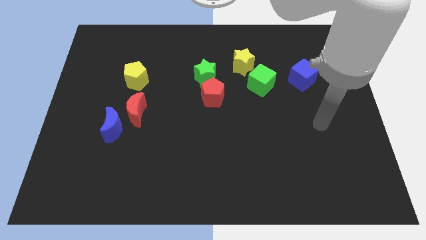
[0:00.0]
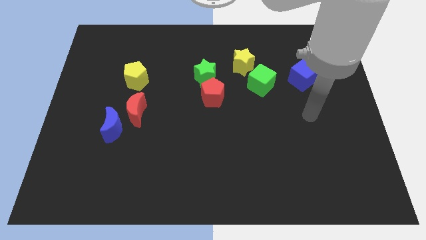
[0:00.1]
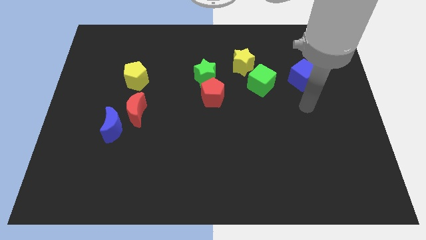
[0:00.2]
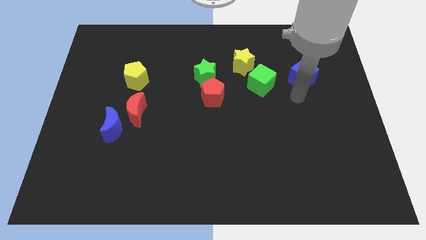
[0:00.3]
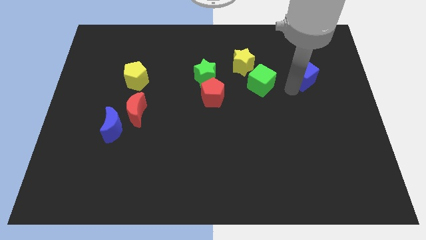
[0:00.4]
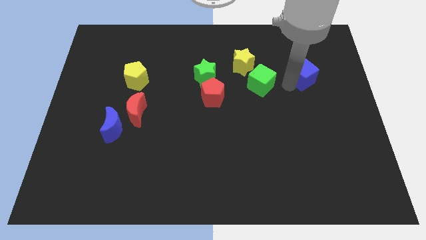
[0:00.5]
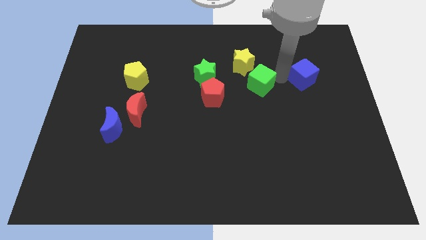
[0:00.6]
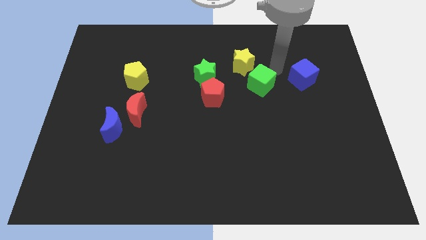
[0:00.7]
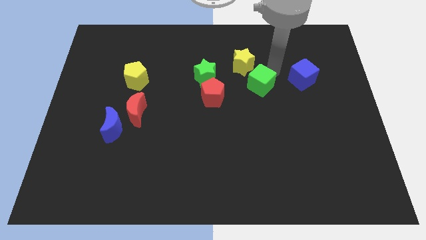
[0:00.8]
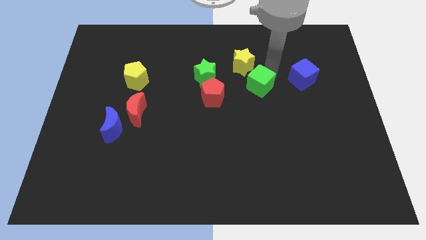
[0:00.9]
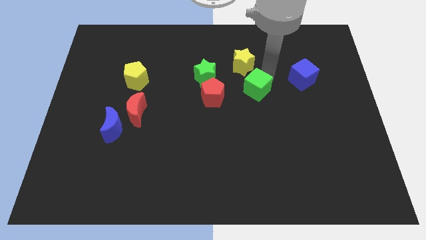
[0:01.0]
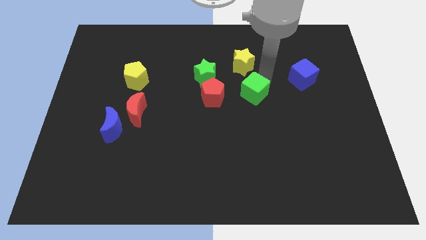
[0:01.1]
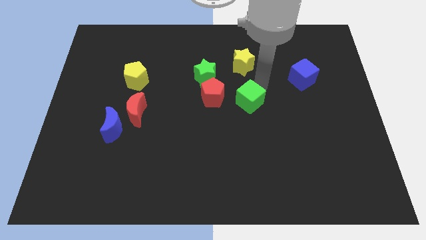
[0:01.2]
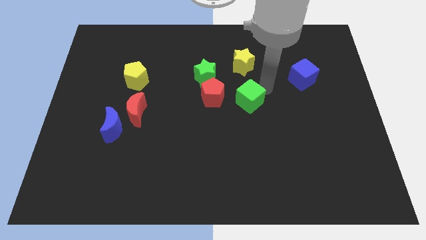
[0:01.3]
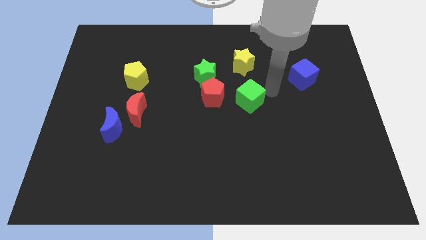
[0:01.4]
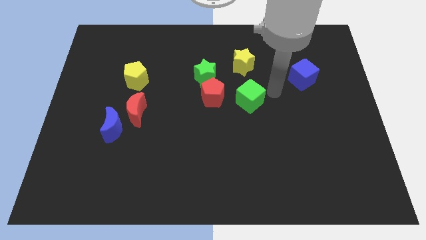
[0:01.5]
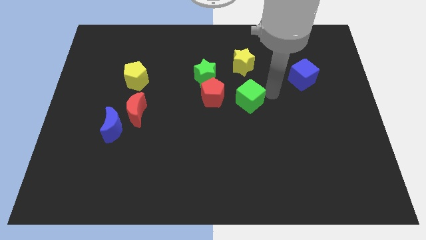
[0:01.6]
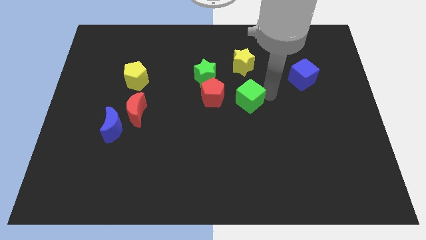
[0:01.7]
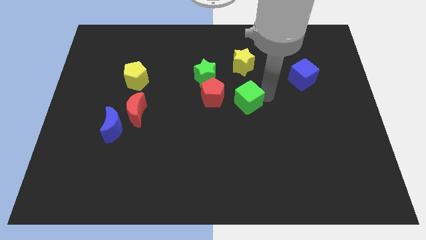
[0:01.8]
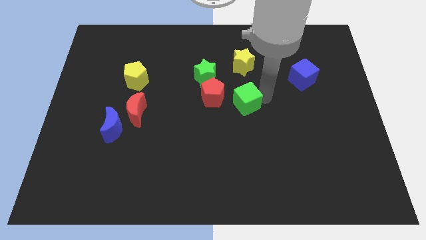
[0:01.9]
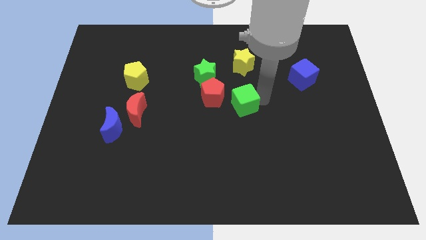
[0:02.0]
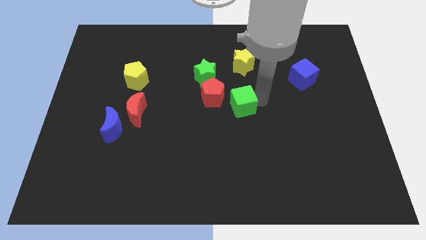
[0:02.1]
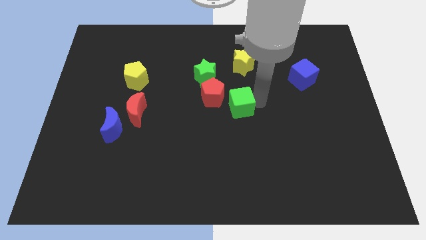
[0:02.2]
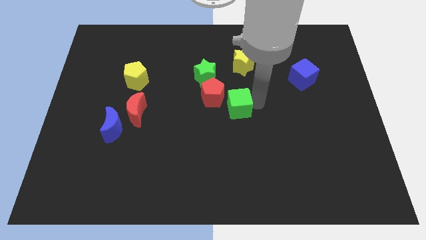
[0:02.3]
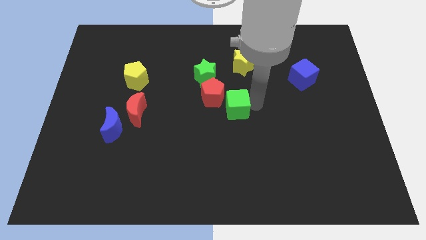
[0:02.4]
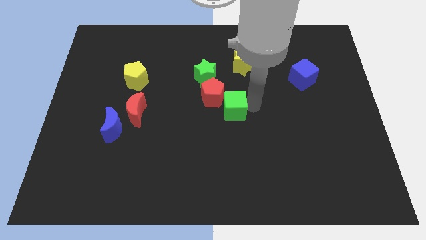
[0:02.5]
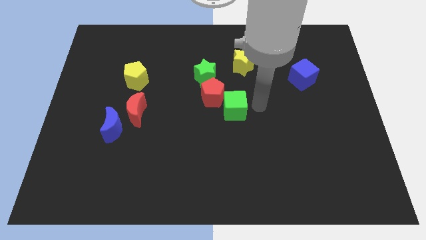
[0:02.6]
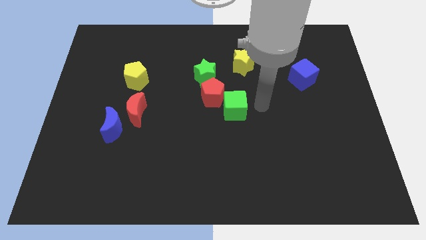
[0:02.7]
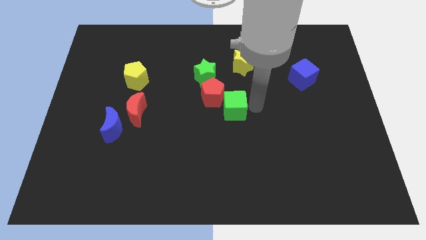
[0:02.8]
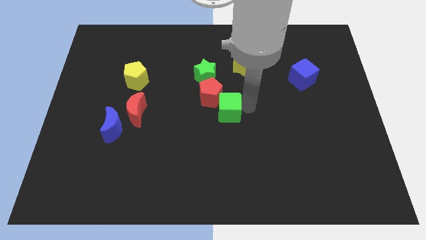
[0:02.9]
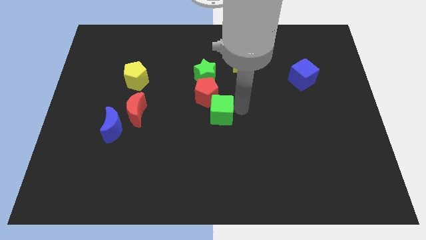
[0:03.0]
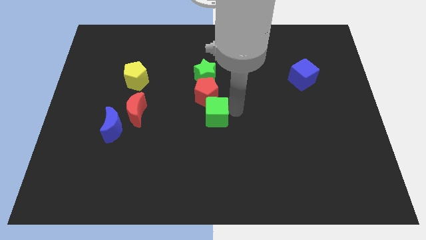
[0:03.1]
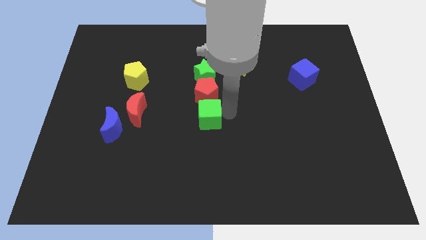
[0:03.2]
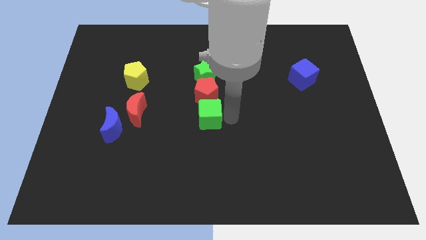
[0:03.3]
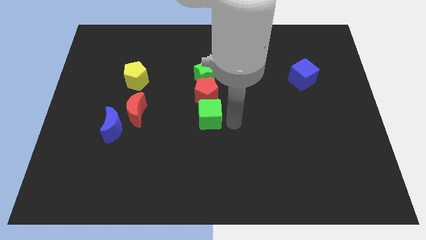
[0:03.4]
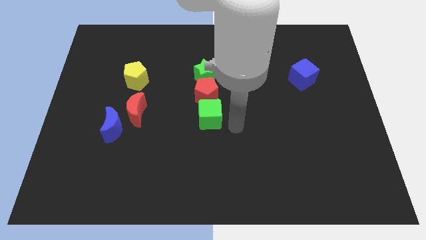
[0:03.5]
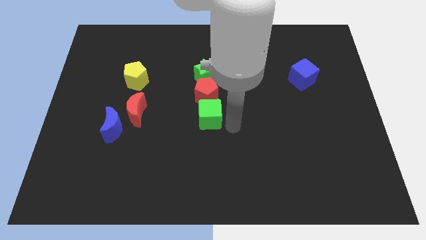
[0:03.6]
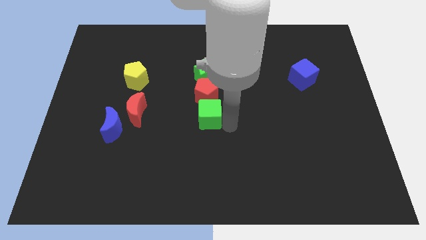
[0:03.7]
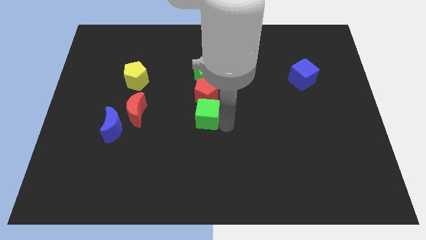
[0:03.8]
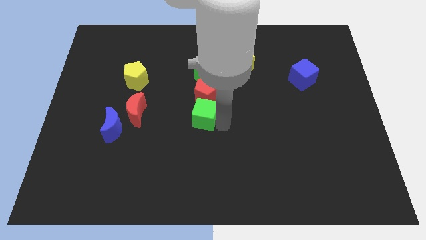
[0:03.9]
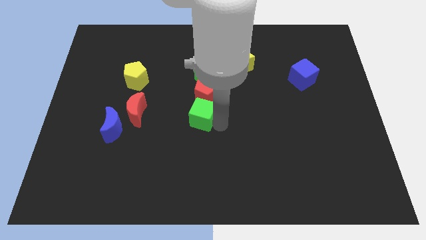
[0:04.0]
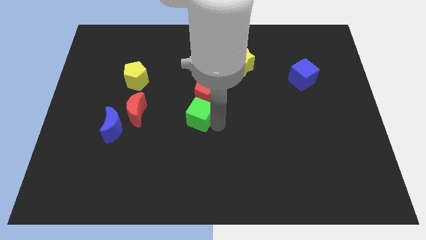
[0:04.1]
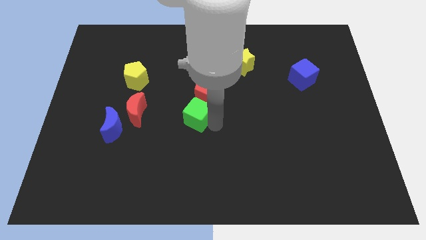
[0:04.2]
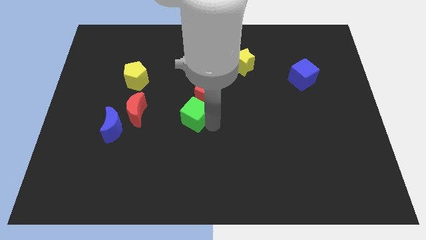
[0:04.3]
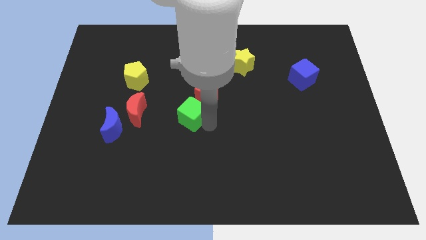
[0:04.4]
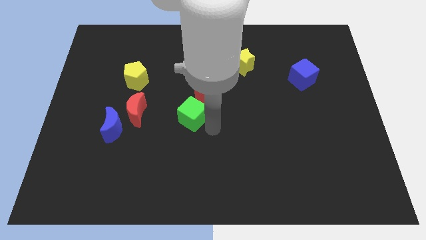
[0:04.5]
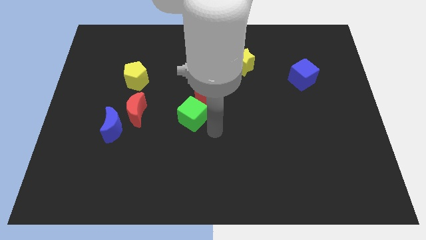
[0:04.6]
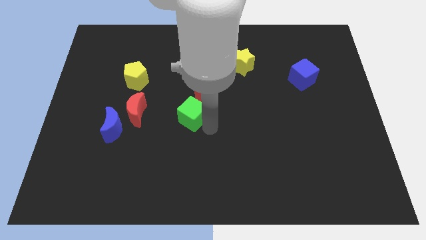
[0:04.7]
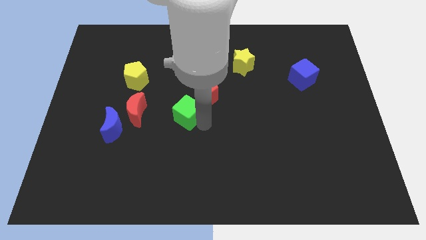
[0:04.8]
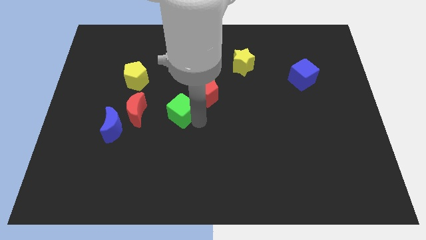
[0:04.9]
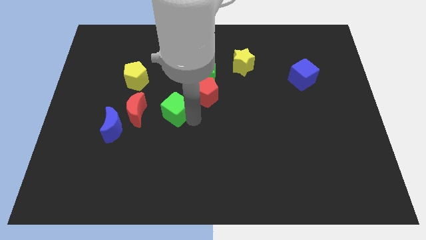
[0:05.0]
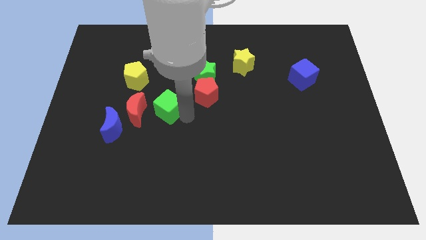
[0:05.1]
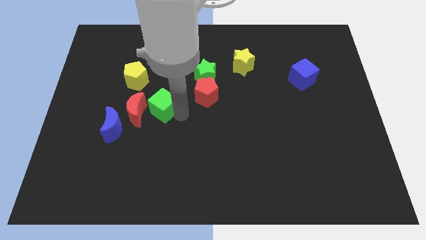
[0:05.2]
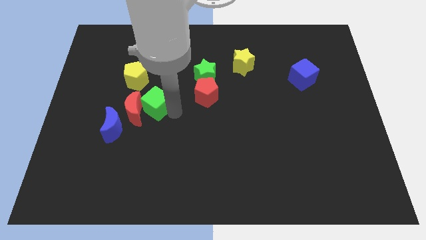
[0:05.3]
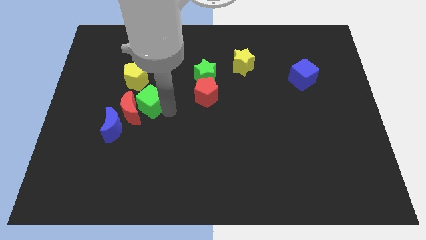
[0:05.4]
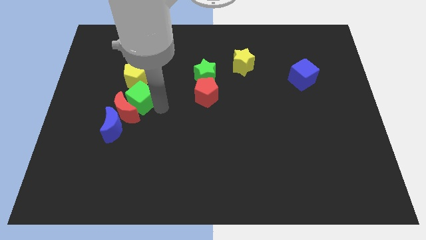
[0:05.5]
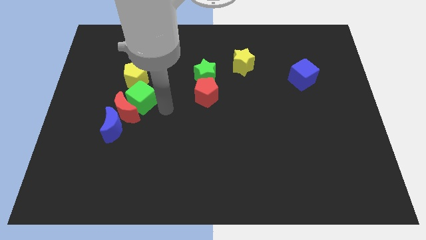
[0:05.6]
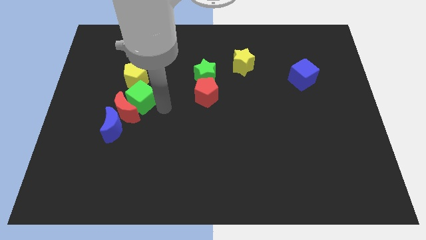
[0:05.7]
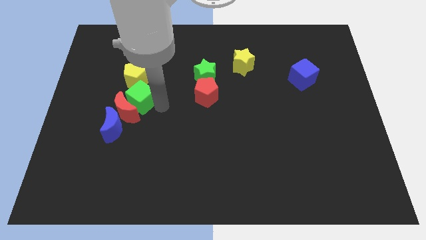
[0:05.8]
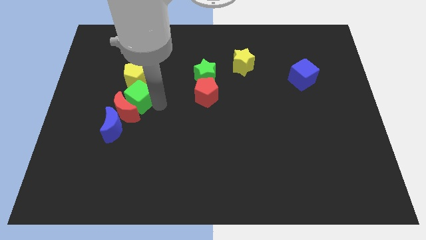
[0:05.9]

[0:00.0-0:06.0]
move the green cube to the top side of the blue moon

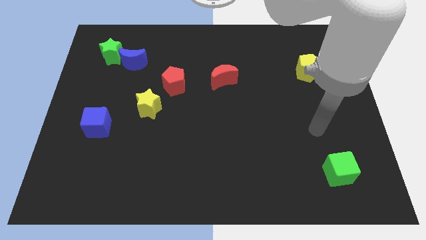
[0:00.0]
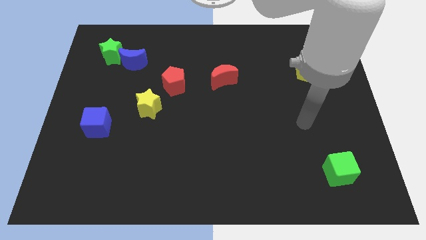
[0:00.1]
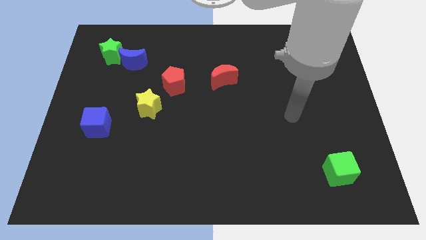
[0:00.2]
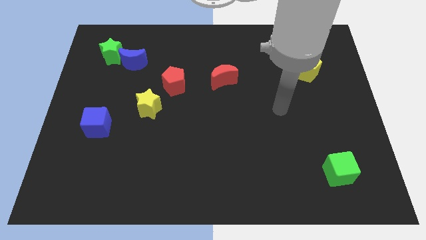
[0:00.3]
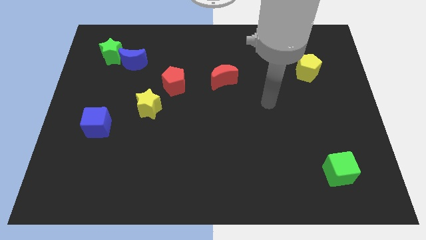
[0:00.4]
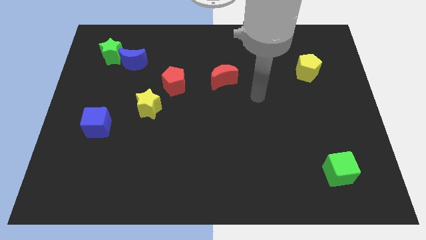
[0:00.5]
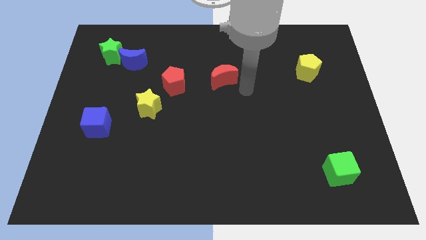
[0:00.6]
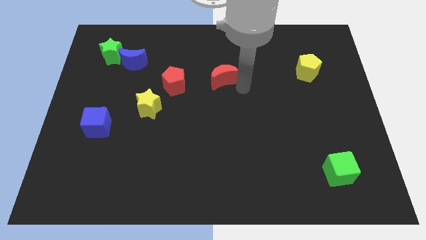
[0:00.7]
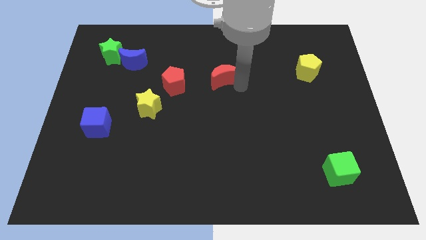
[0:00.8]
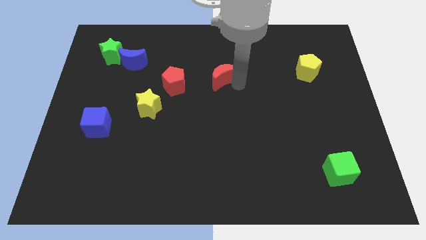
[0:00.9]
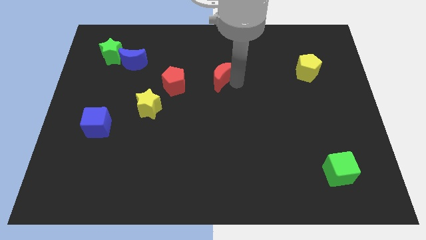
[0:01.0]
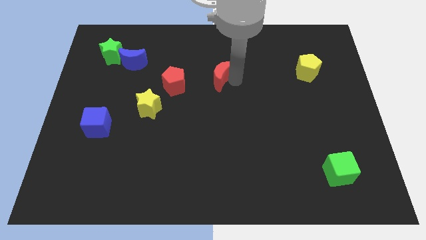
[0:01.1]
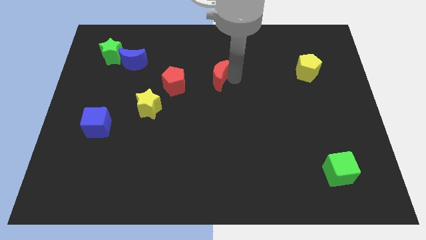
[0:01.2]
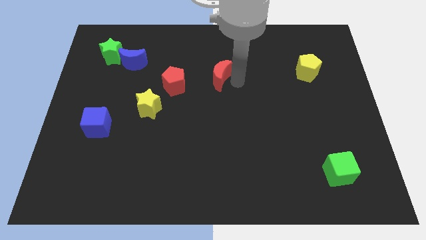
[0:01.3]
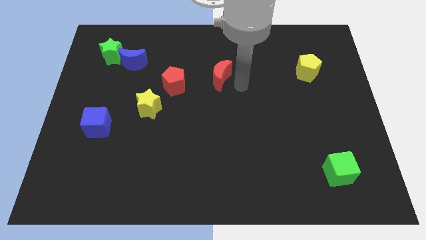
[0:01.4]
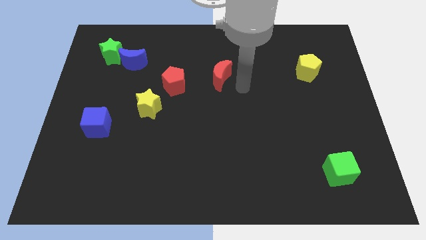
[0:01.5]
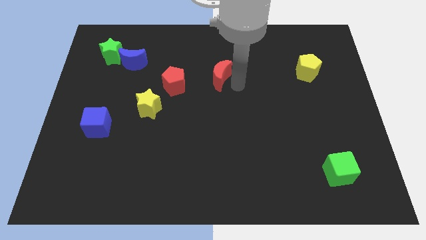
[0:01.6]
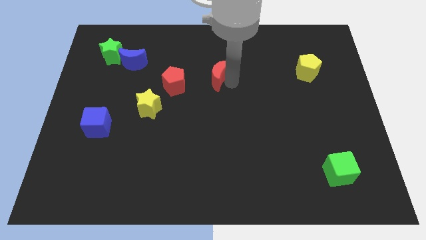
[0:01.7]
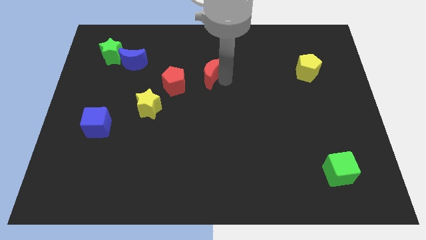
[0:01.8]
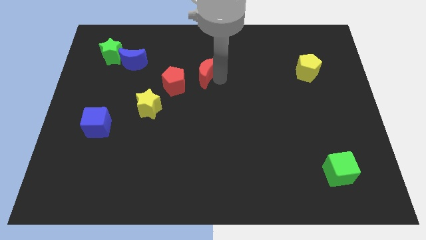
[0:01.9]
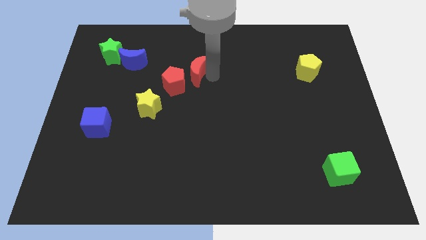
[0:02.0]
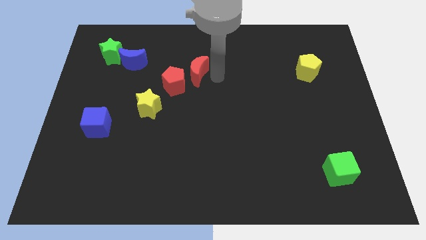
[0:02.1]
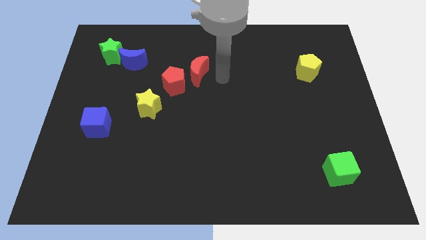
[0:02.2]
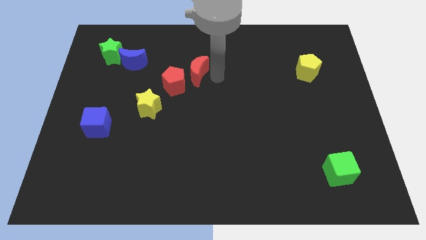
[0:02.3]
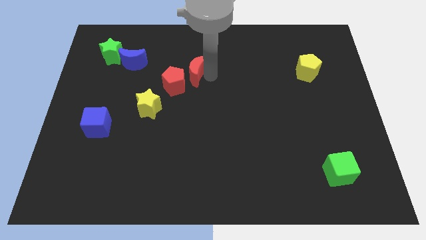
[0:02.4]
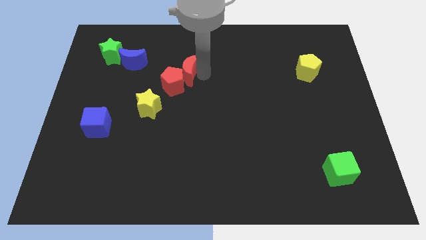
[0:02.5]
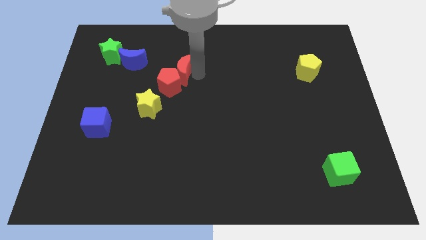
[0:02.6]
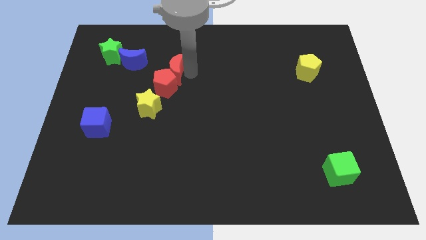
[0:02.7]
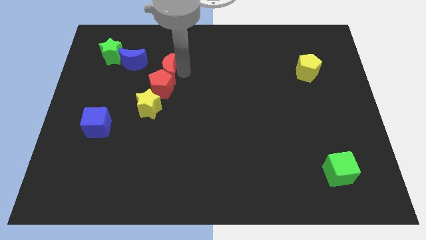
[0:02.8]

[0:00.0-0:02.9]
push the red moon to the top left of the red pentagon
